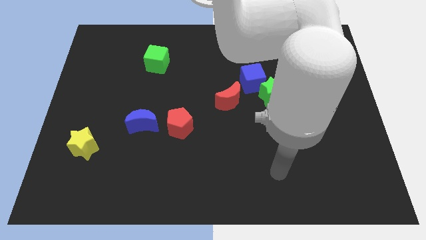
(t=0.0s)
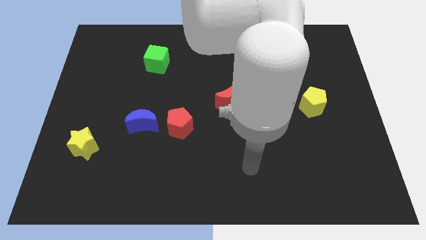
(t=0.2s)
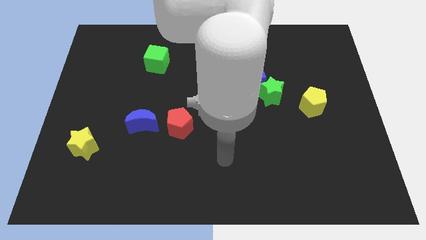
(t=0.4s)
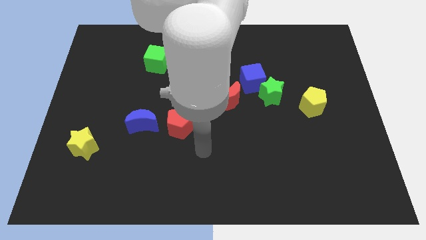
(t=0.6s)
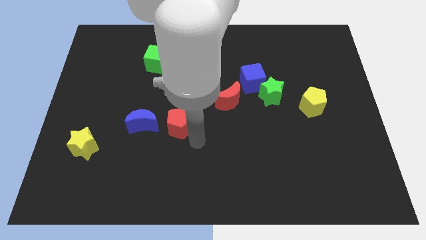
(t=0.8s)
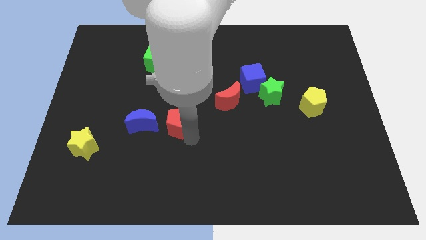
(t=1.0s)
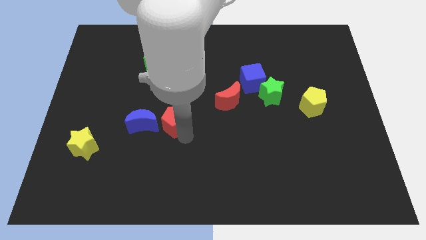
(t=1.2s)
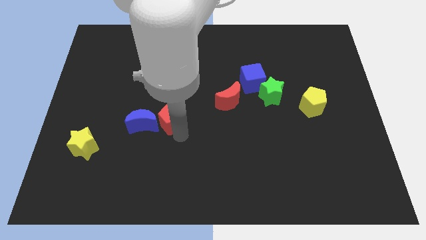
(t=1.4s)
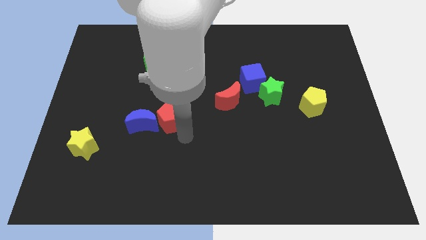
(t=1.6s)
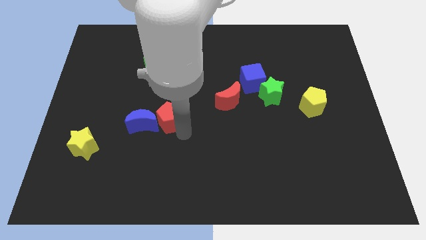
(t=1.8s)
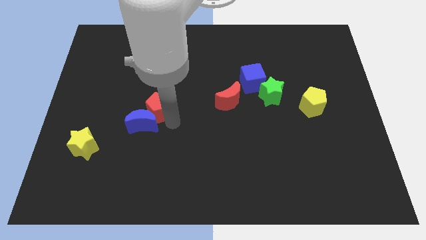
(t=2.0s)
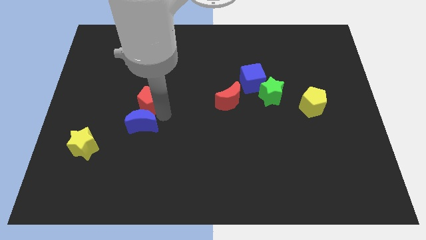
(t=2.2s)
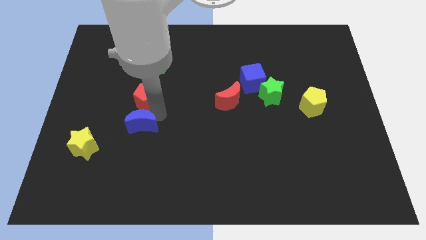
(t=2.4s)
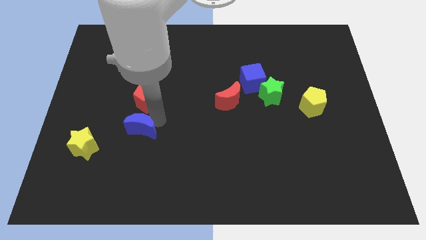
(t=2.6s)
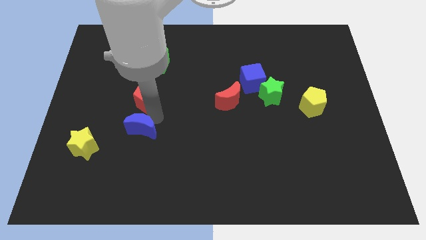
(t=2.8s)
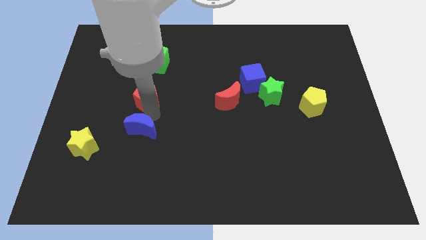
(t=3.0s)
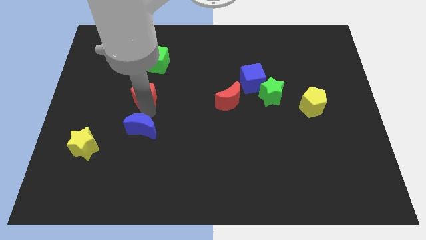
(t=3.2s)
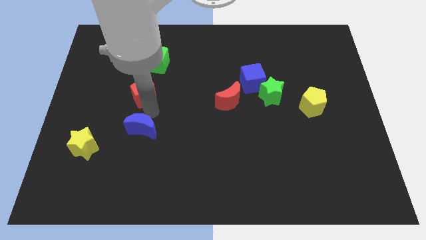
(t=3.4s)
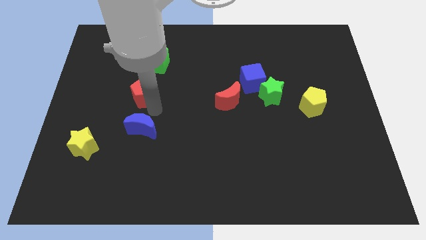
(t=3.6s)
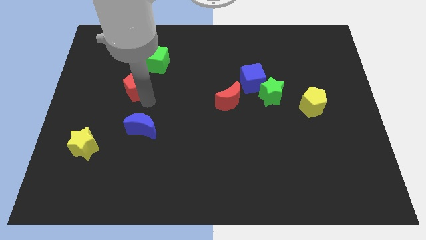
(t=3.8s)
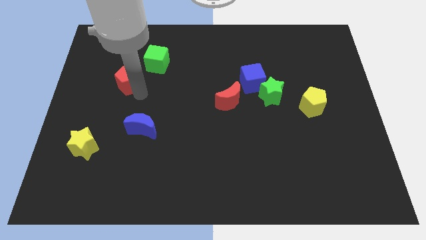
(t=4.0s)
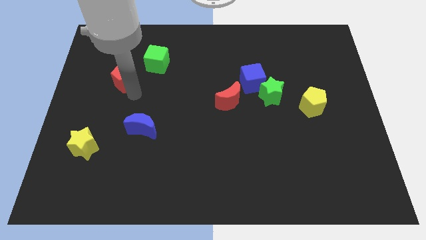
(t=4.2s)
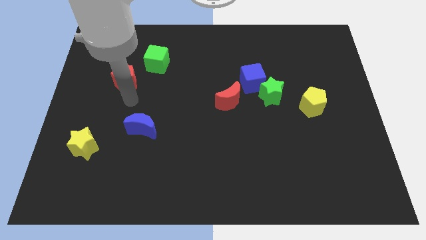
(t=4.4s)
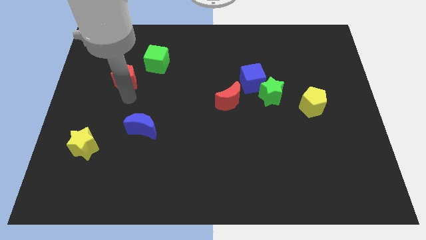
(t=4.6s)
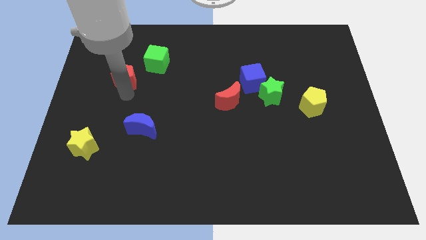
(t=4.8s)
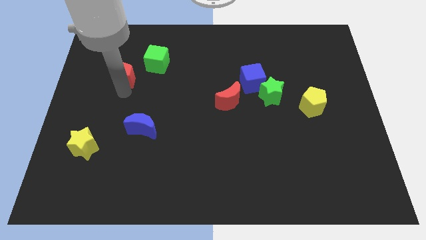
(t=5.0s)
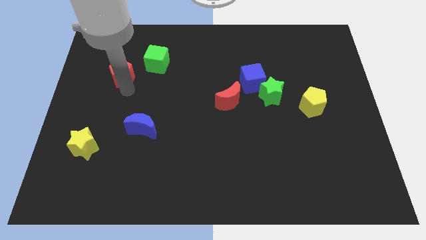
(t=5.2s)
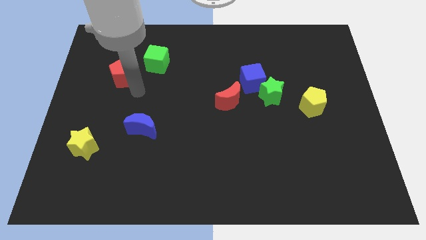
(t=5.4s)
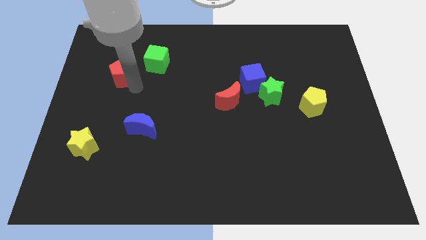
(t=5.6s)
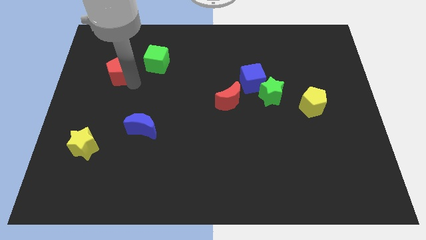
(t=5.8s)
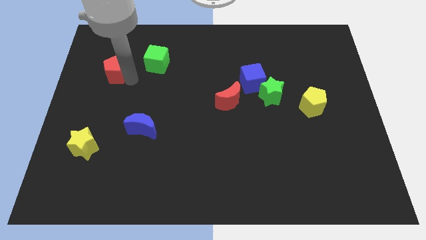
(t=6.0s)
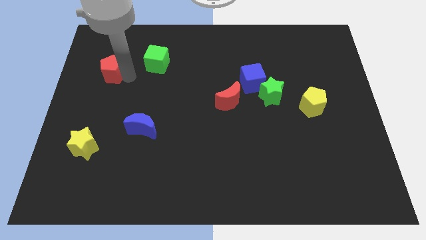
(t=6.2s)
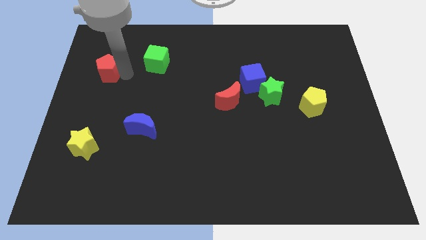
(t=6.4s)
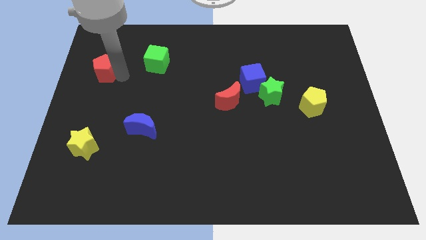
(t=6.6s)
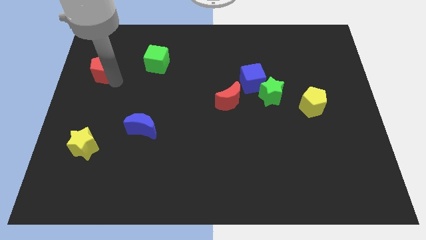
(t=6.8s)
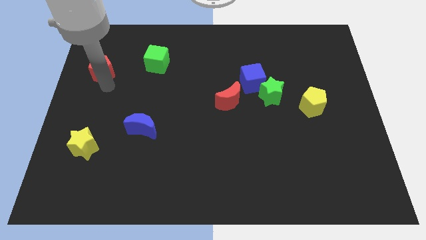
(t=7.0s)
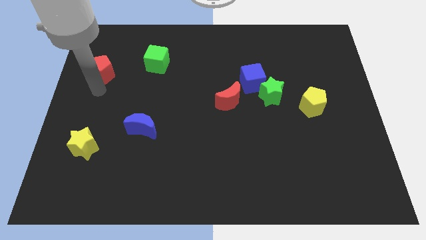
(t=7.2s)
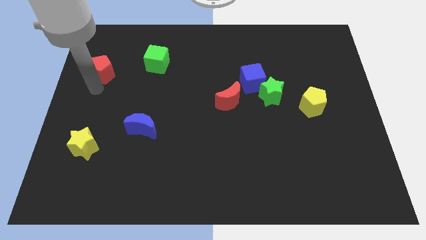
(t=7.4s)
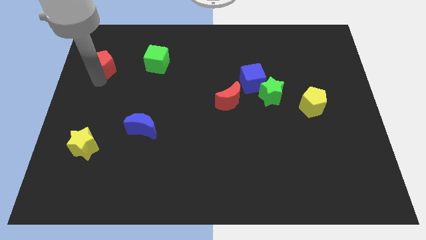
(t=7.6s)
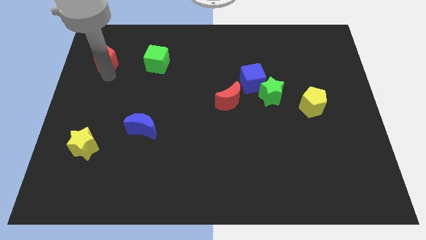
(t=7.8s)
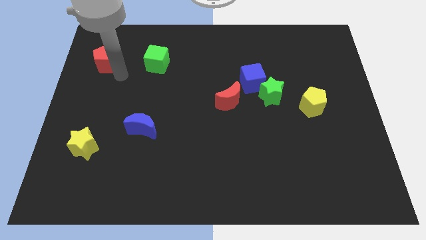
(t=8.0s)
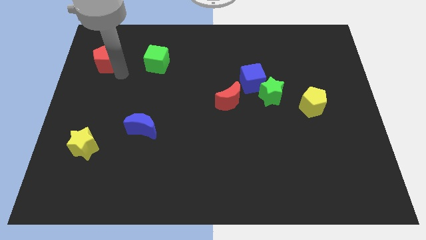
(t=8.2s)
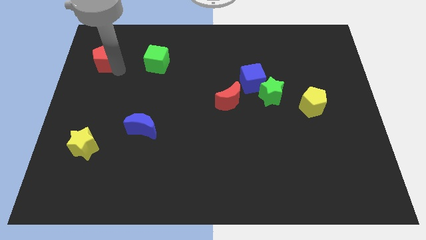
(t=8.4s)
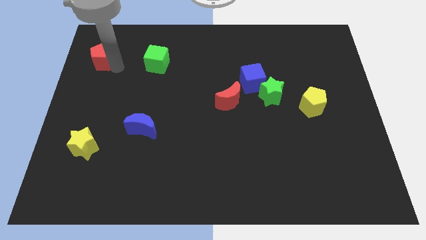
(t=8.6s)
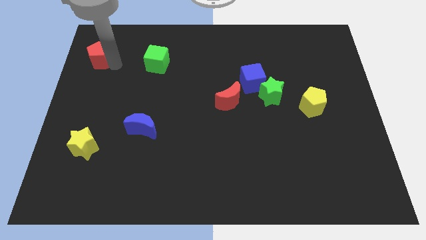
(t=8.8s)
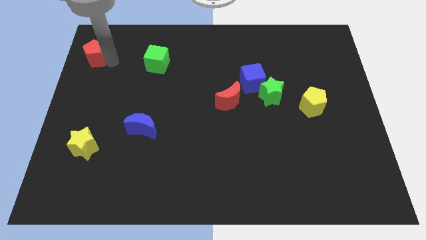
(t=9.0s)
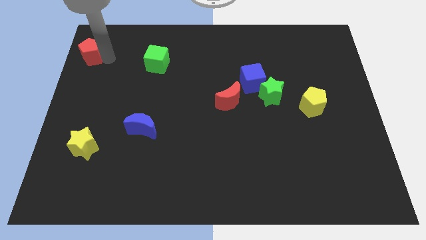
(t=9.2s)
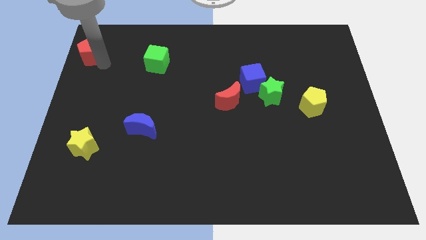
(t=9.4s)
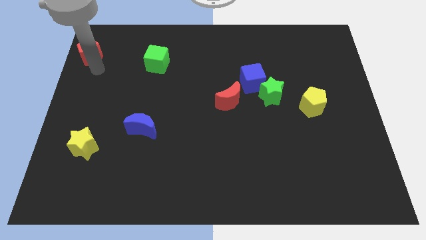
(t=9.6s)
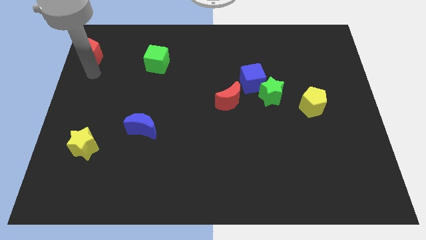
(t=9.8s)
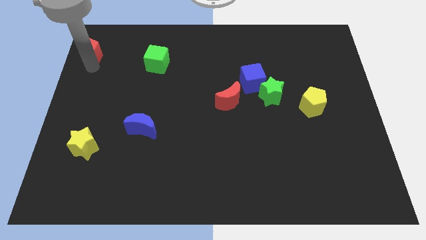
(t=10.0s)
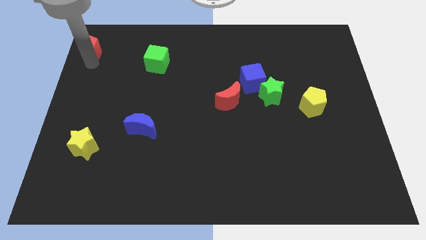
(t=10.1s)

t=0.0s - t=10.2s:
push the red pentagon to the top left of the board

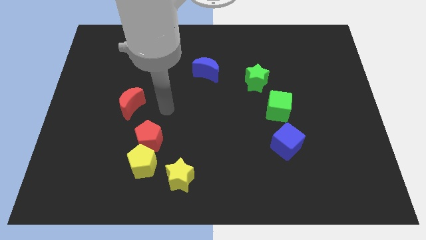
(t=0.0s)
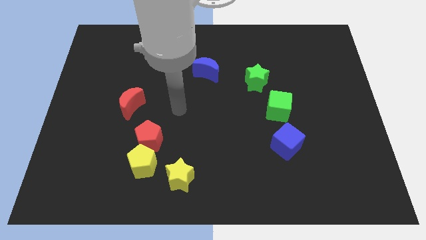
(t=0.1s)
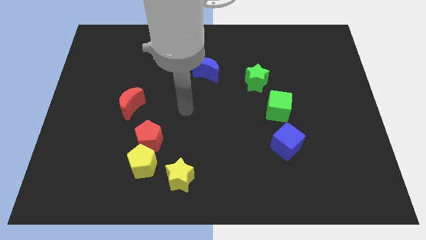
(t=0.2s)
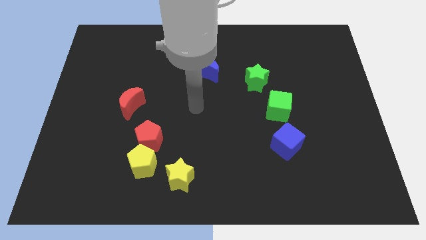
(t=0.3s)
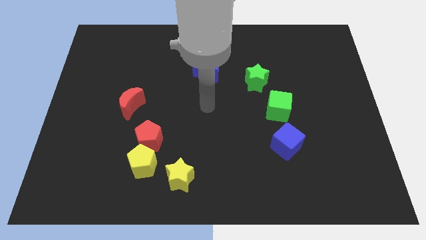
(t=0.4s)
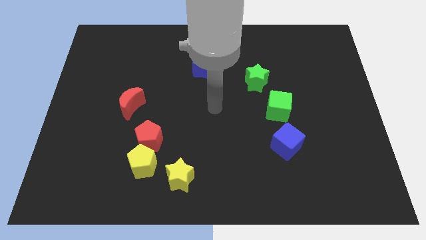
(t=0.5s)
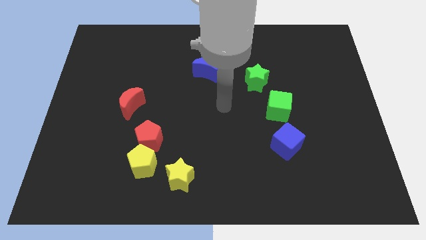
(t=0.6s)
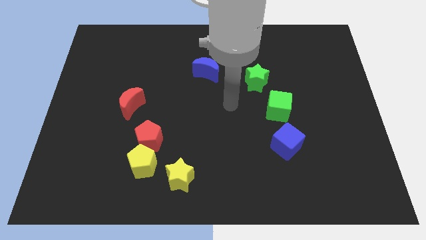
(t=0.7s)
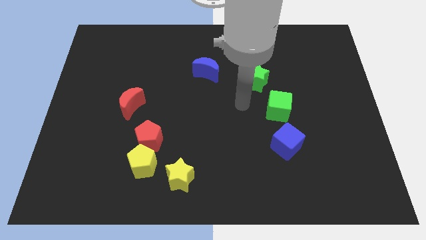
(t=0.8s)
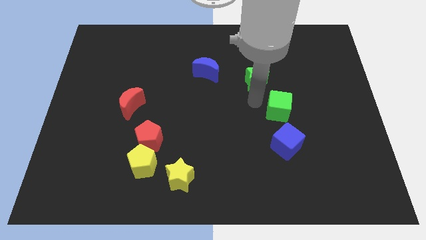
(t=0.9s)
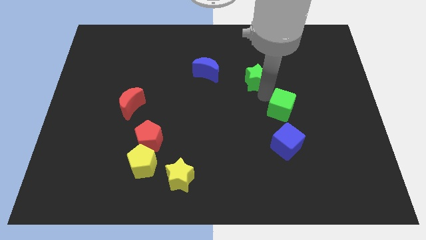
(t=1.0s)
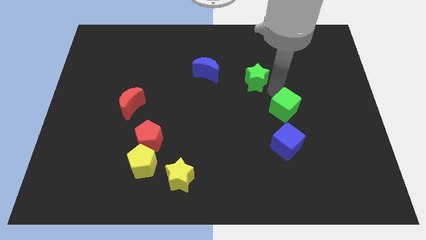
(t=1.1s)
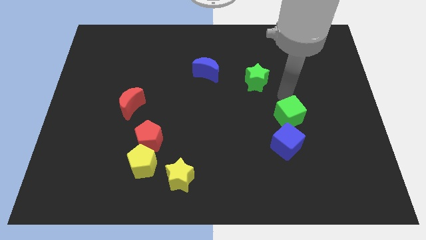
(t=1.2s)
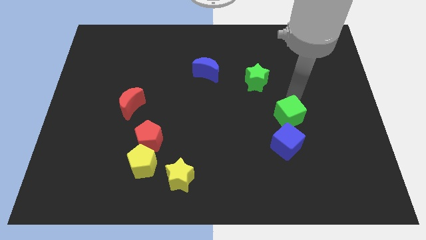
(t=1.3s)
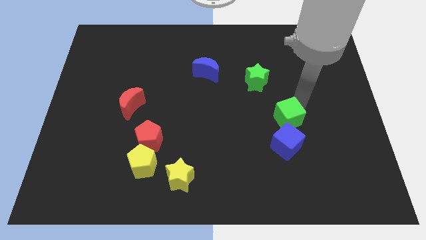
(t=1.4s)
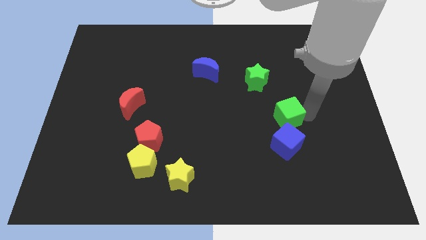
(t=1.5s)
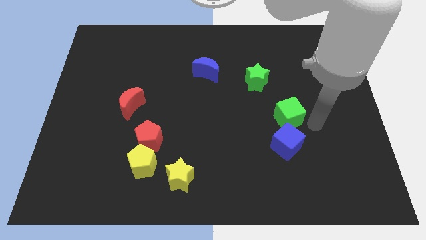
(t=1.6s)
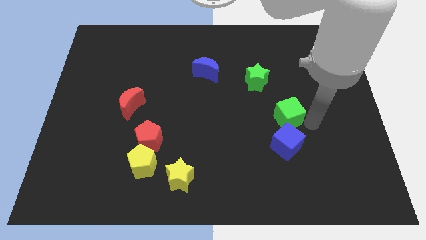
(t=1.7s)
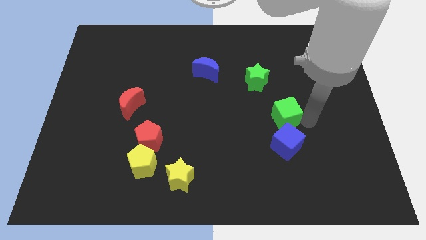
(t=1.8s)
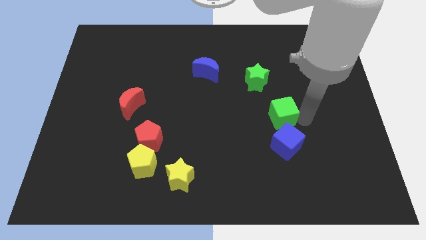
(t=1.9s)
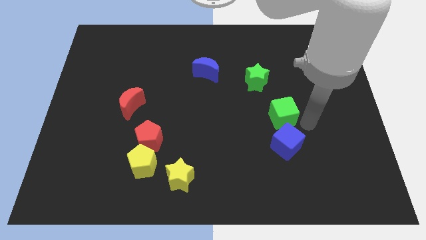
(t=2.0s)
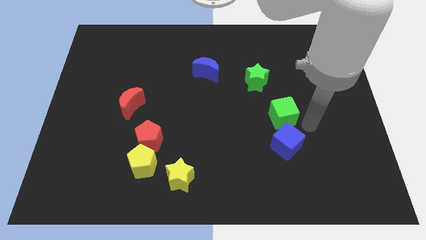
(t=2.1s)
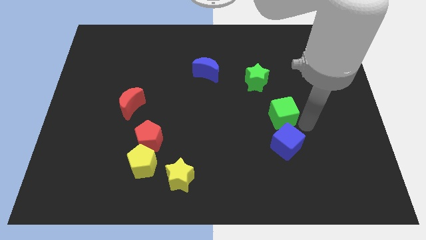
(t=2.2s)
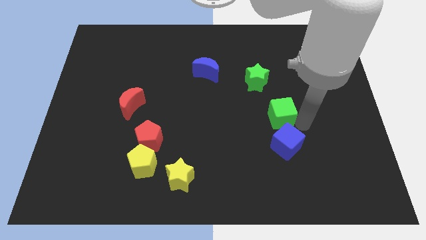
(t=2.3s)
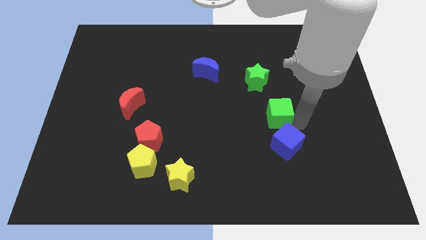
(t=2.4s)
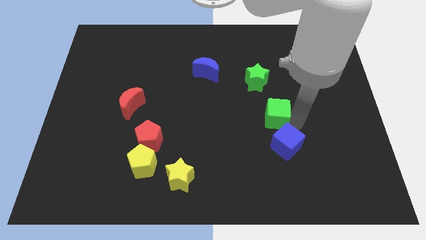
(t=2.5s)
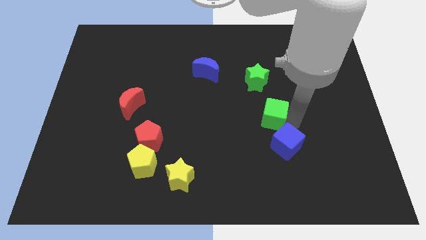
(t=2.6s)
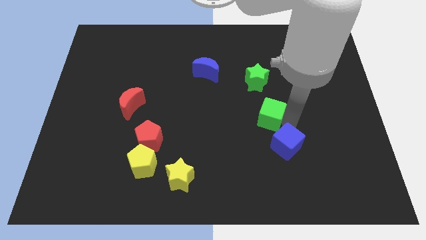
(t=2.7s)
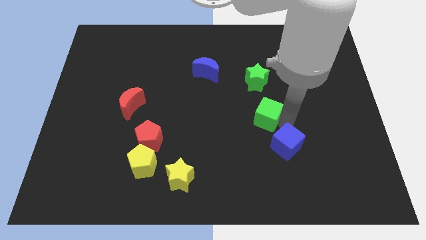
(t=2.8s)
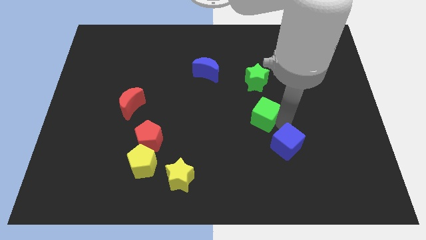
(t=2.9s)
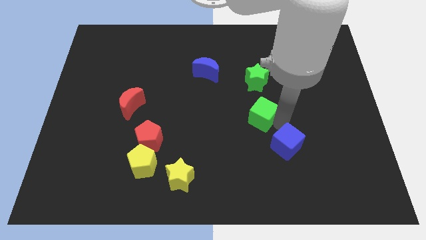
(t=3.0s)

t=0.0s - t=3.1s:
slide the green cube to the center of the board
